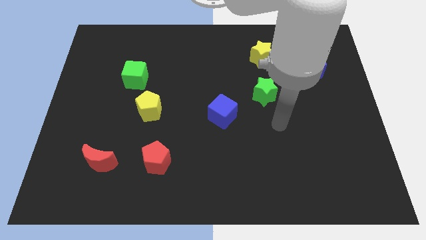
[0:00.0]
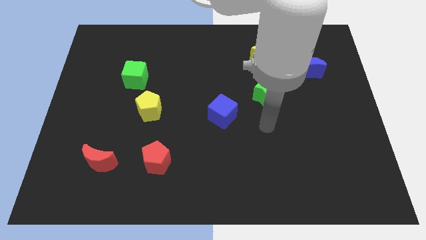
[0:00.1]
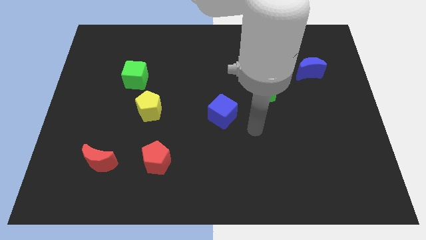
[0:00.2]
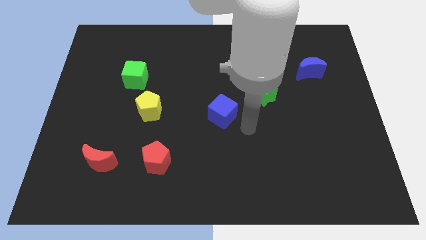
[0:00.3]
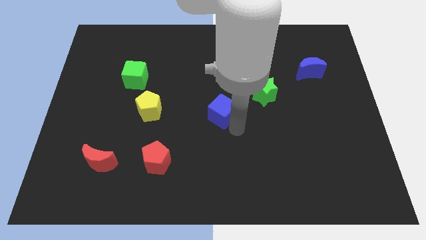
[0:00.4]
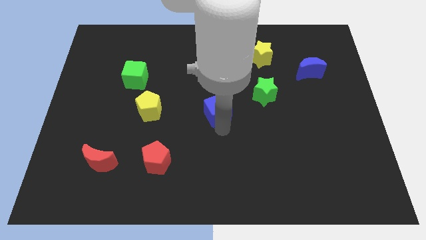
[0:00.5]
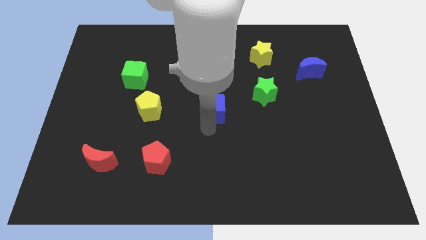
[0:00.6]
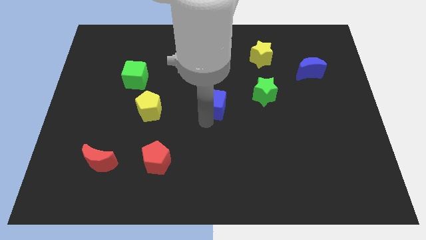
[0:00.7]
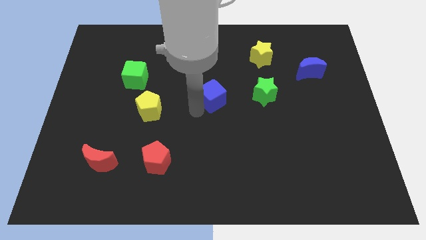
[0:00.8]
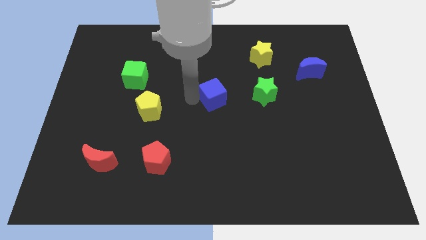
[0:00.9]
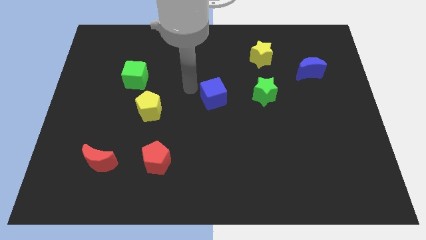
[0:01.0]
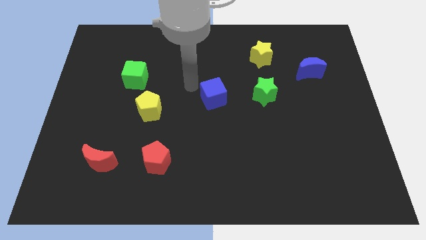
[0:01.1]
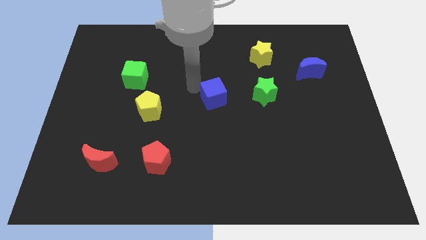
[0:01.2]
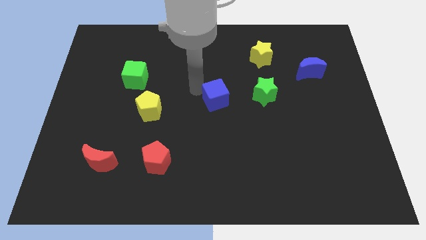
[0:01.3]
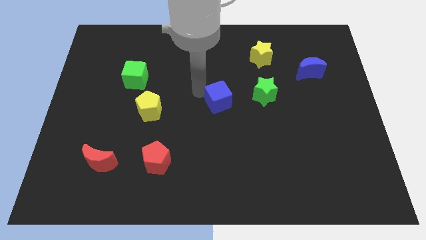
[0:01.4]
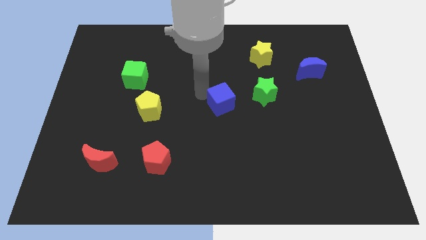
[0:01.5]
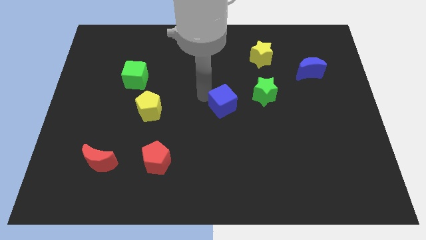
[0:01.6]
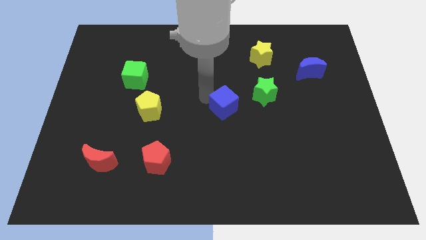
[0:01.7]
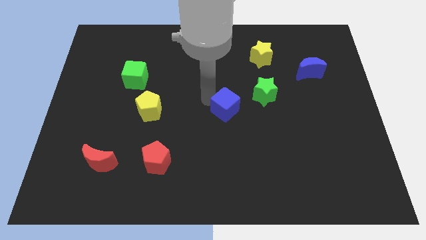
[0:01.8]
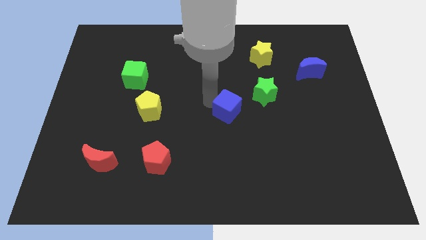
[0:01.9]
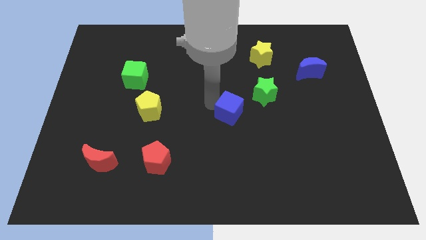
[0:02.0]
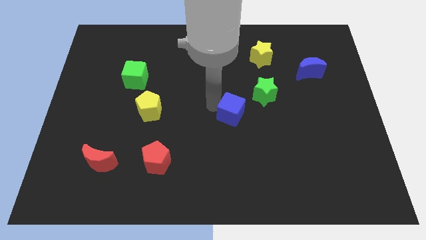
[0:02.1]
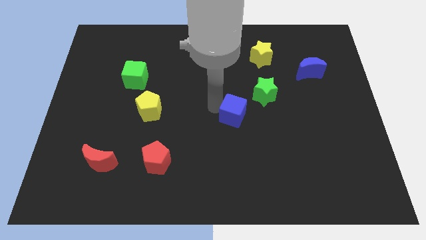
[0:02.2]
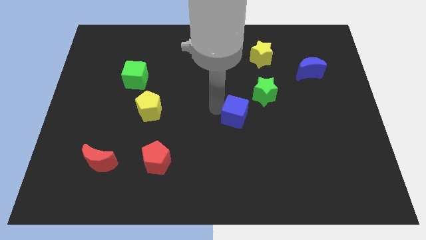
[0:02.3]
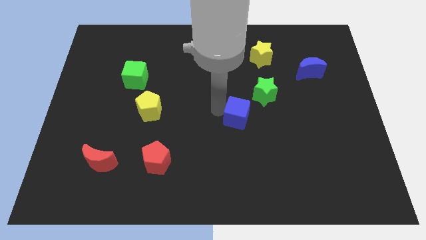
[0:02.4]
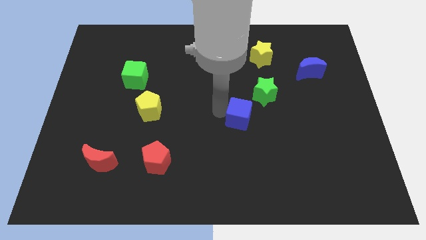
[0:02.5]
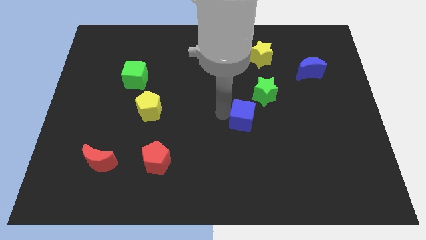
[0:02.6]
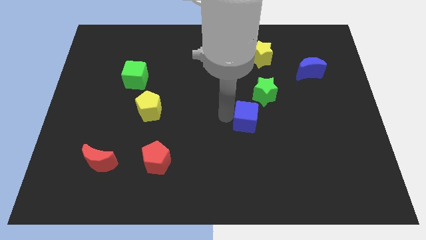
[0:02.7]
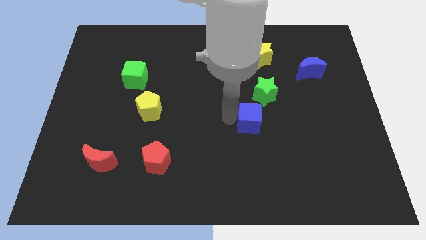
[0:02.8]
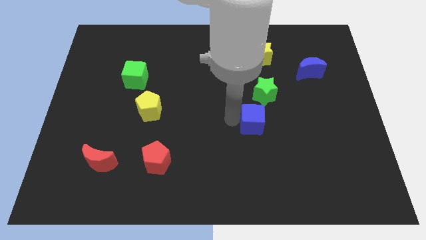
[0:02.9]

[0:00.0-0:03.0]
slide the blue cube a little bit to the right

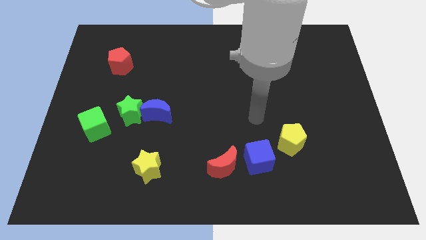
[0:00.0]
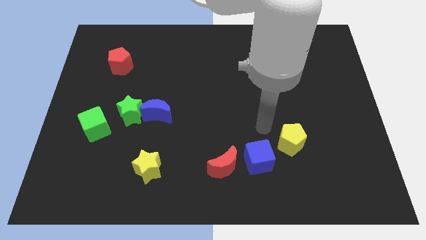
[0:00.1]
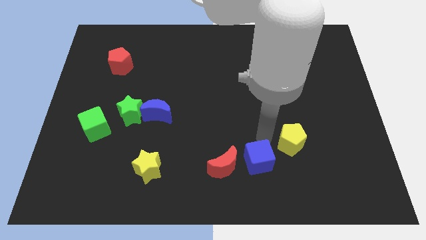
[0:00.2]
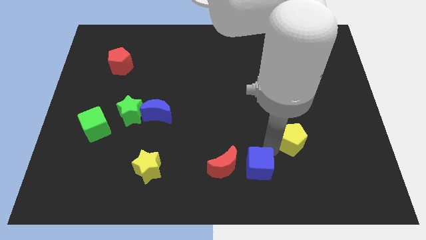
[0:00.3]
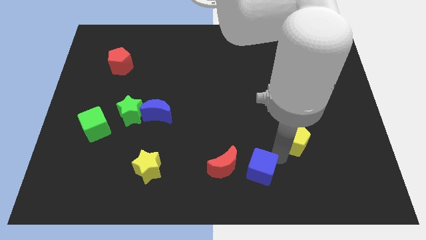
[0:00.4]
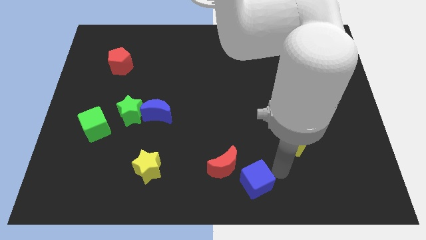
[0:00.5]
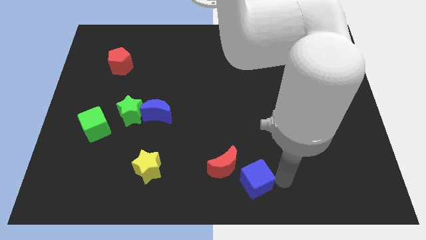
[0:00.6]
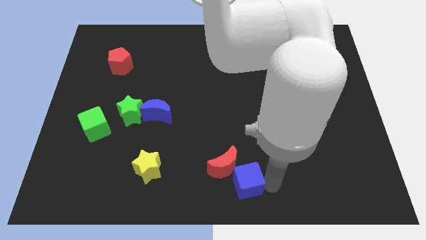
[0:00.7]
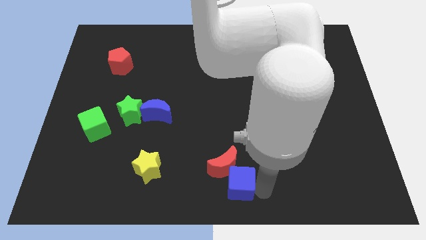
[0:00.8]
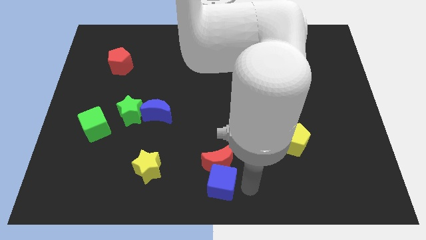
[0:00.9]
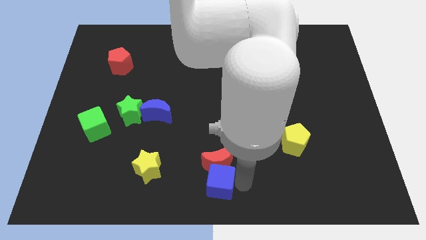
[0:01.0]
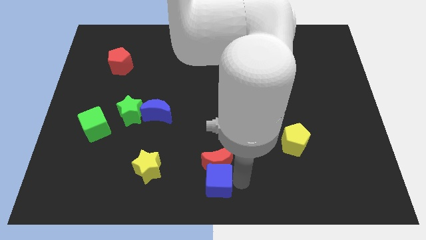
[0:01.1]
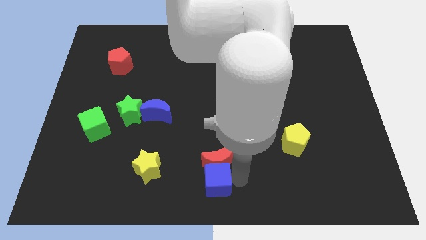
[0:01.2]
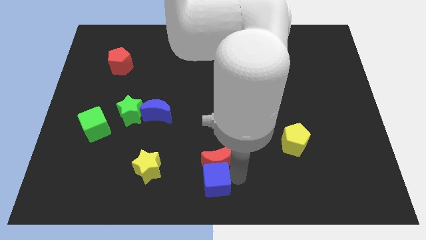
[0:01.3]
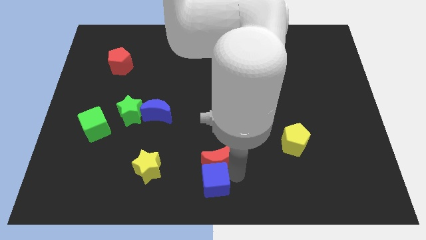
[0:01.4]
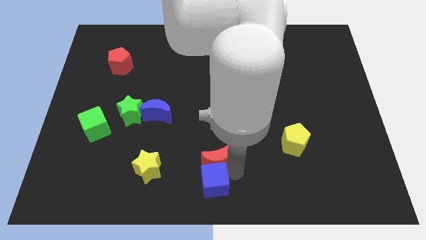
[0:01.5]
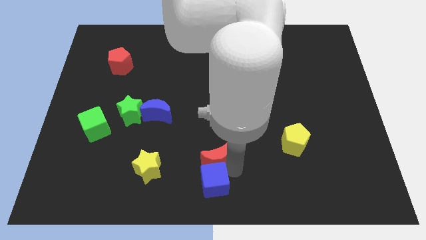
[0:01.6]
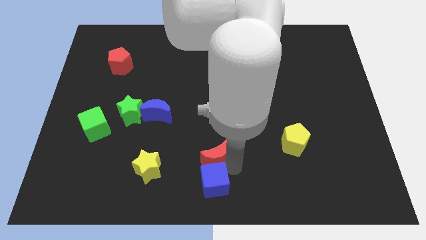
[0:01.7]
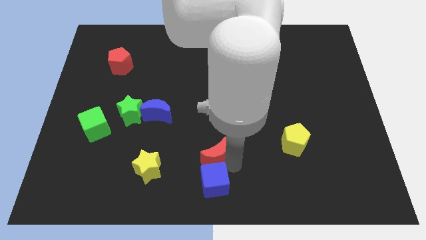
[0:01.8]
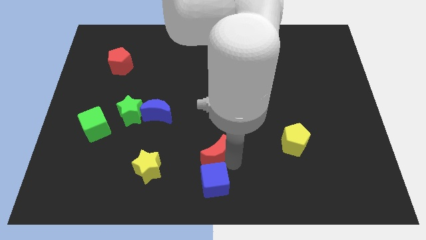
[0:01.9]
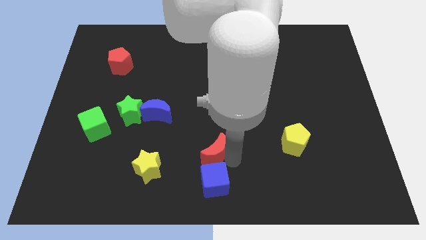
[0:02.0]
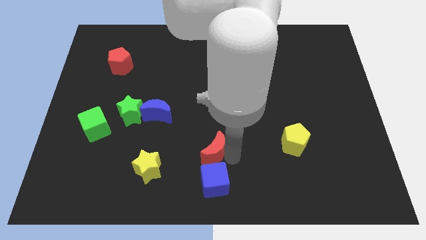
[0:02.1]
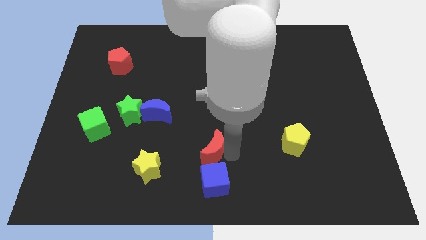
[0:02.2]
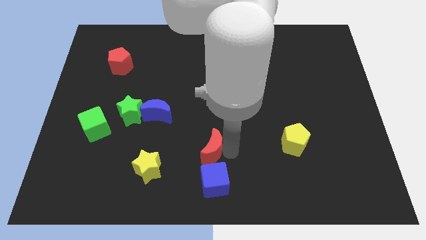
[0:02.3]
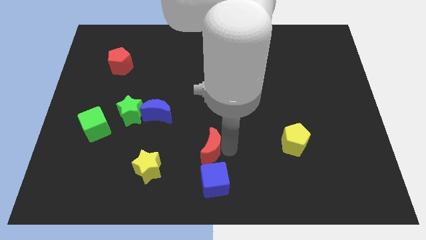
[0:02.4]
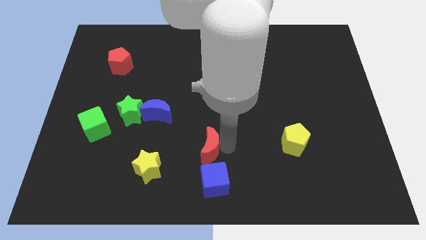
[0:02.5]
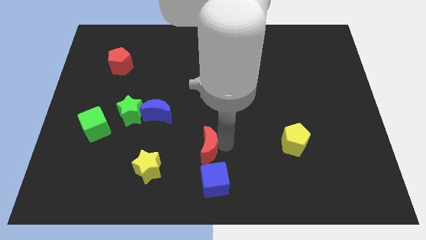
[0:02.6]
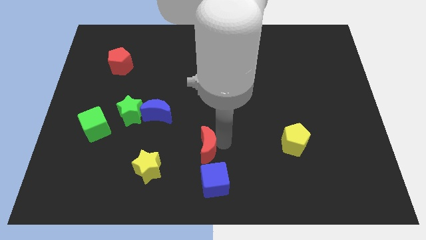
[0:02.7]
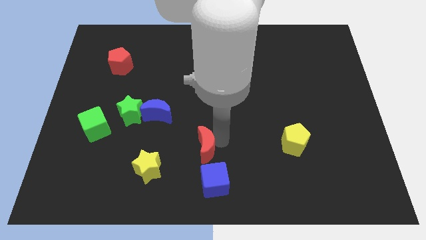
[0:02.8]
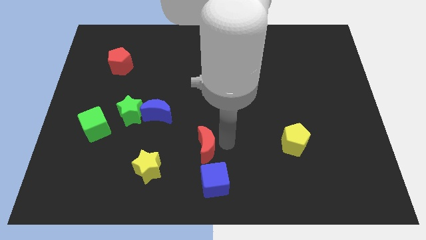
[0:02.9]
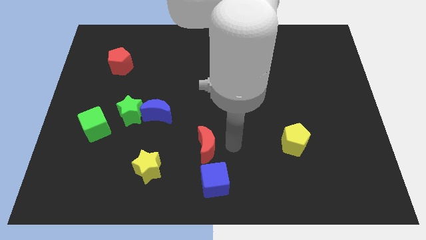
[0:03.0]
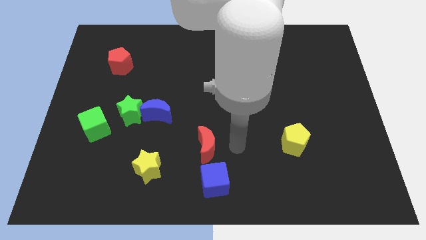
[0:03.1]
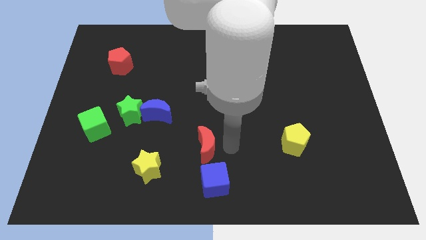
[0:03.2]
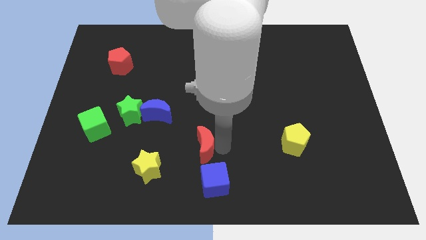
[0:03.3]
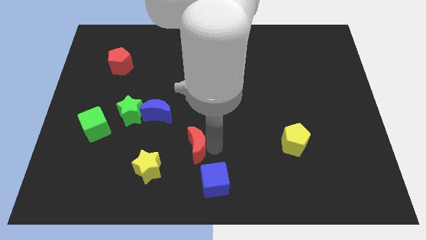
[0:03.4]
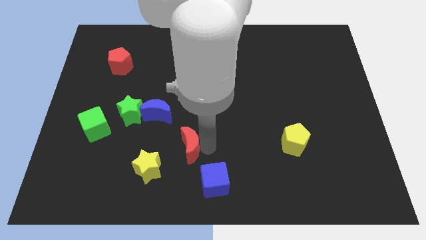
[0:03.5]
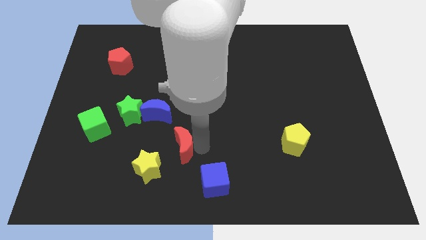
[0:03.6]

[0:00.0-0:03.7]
move the red moon left a little bit

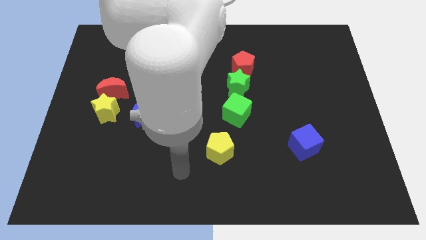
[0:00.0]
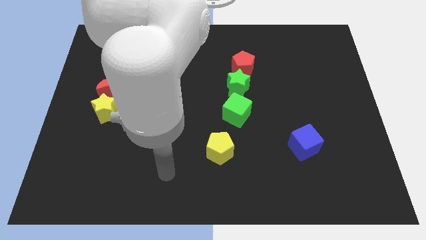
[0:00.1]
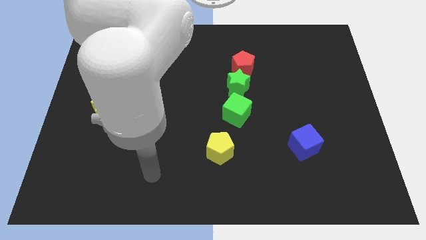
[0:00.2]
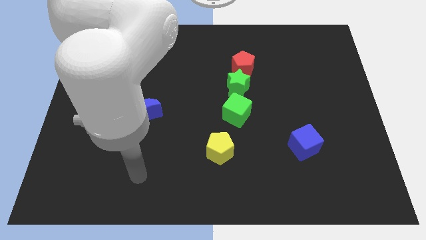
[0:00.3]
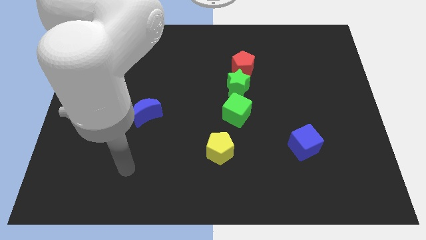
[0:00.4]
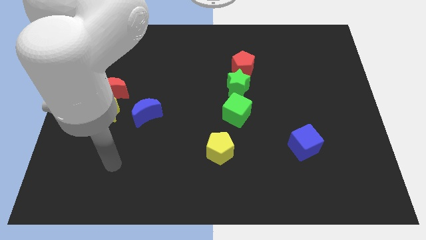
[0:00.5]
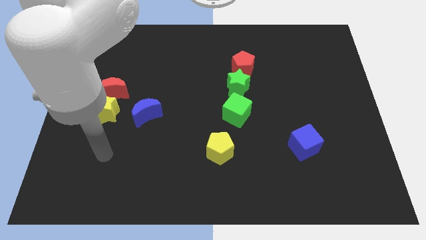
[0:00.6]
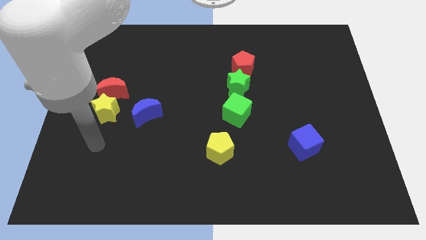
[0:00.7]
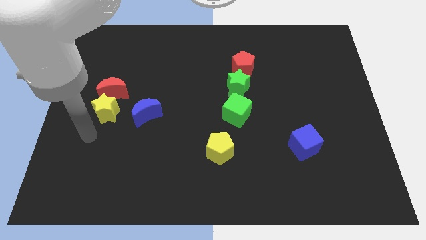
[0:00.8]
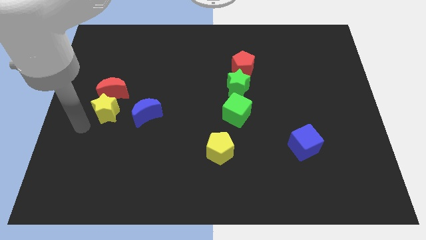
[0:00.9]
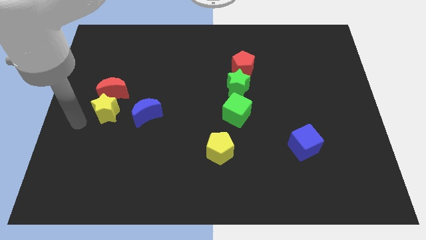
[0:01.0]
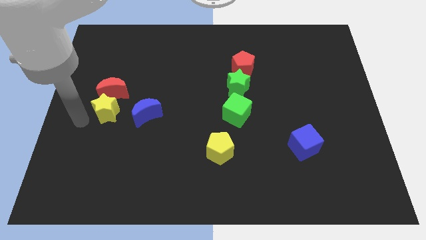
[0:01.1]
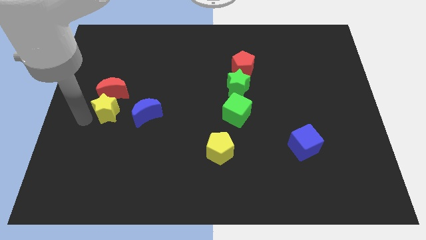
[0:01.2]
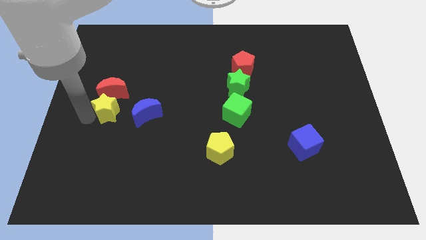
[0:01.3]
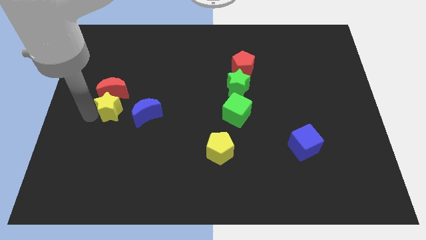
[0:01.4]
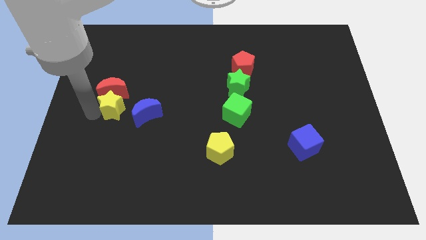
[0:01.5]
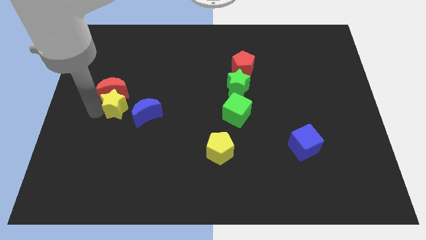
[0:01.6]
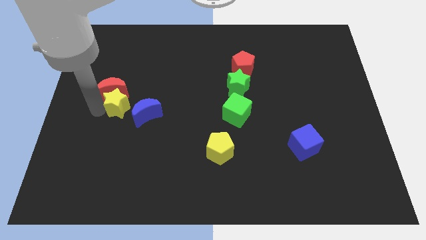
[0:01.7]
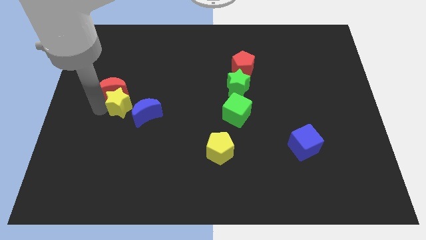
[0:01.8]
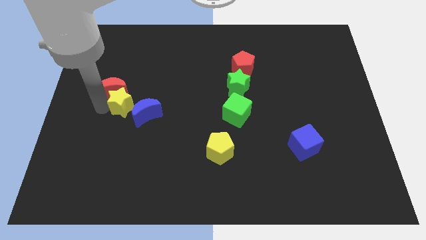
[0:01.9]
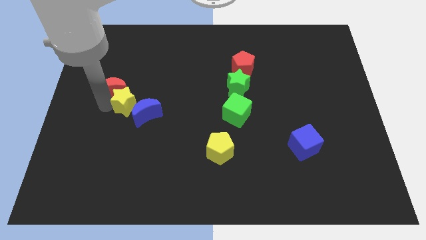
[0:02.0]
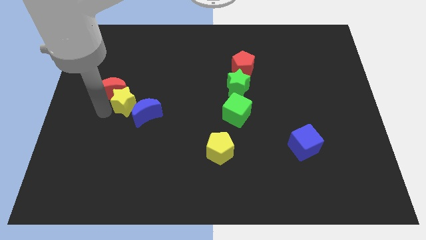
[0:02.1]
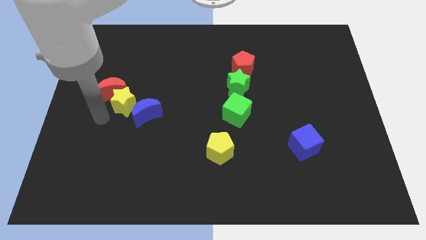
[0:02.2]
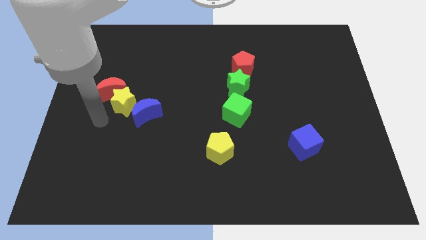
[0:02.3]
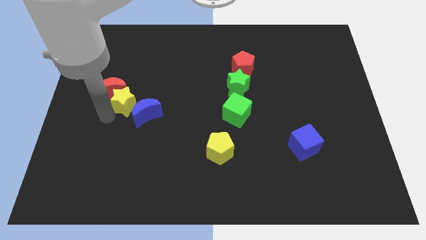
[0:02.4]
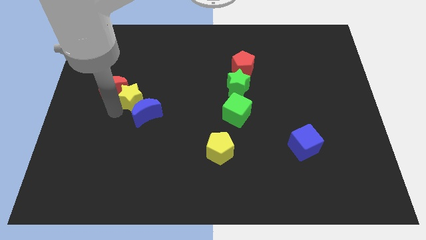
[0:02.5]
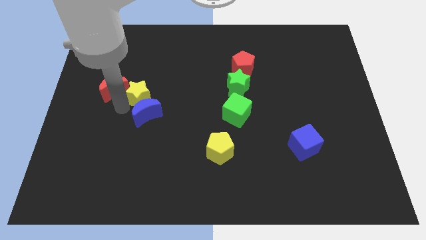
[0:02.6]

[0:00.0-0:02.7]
move the yellow star upwards and then right a bit
